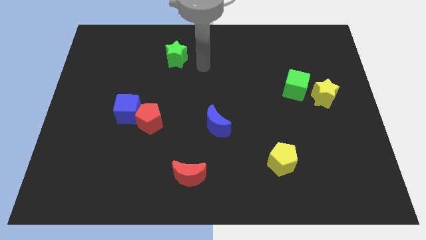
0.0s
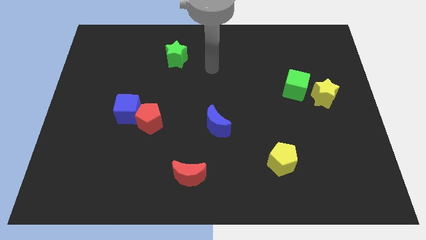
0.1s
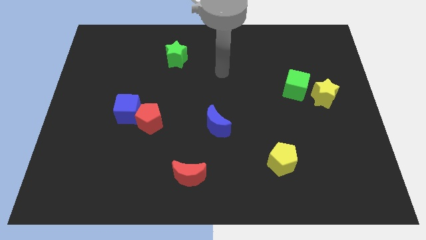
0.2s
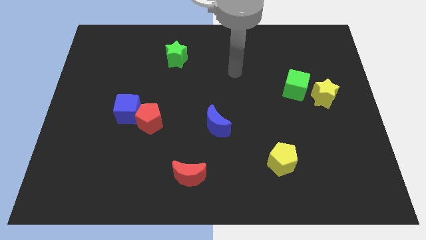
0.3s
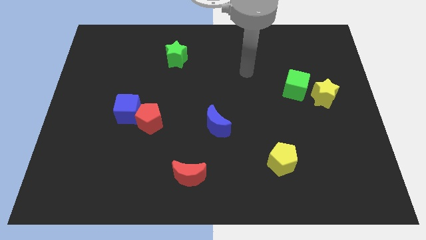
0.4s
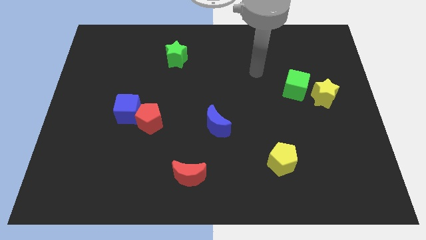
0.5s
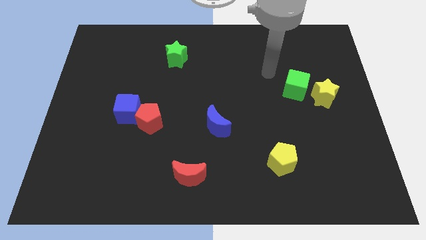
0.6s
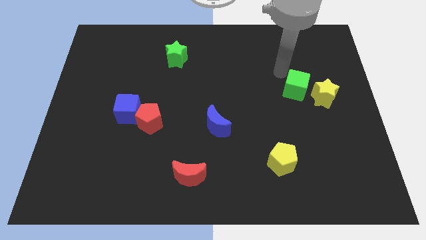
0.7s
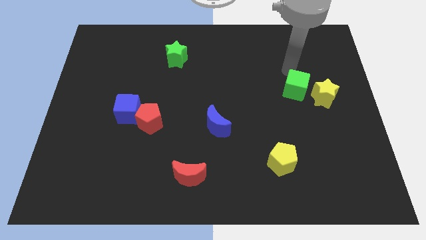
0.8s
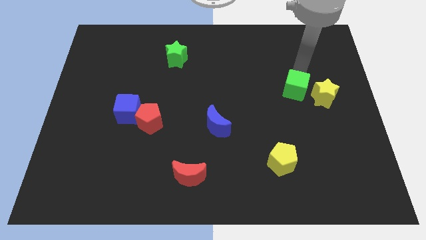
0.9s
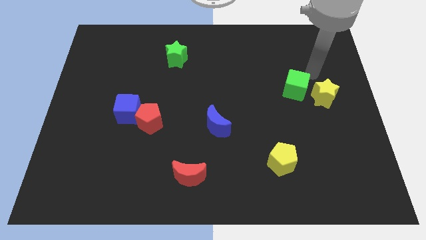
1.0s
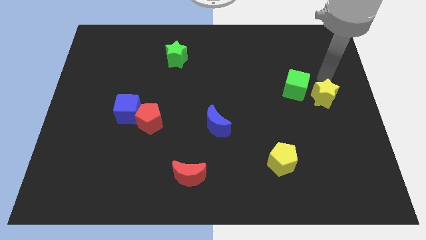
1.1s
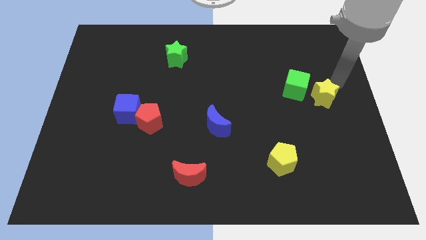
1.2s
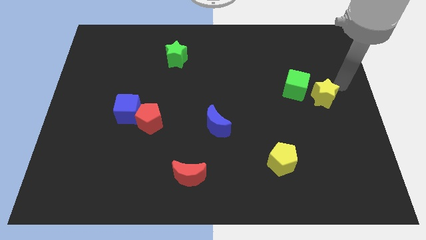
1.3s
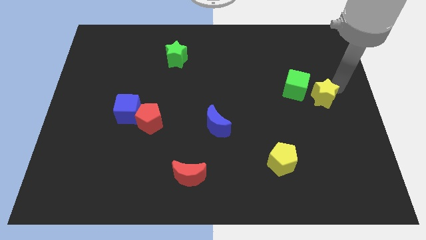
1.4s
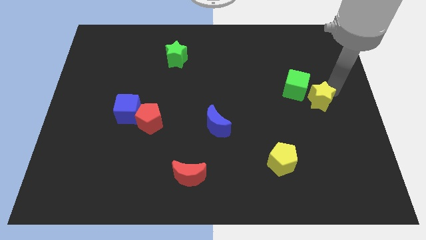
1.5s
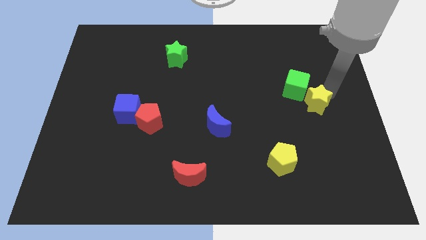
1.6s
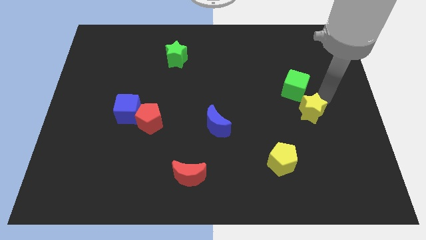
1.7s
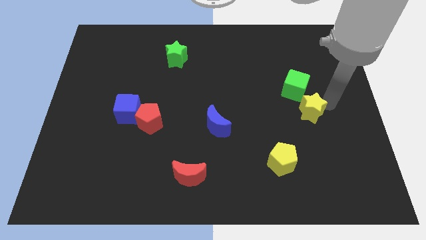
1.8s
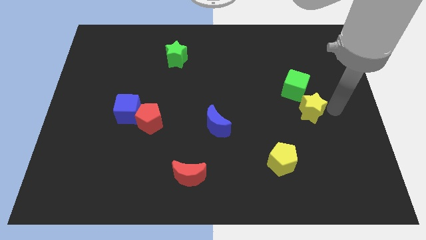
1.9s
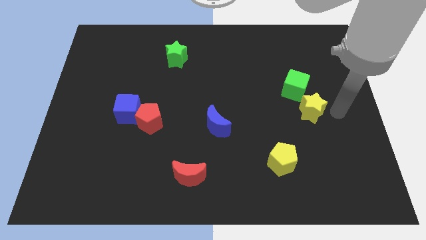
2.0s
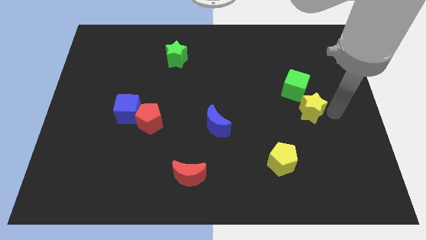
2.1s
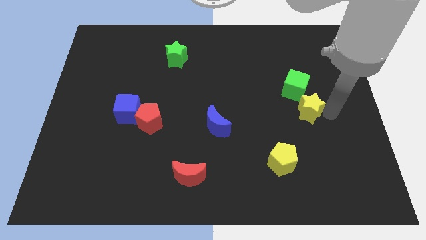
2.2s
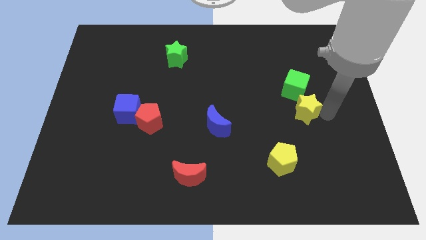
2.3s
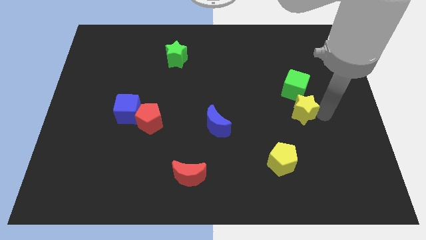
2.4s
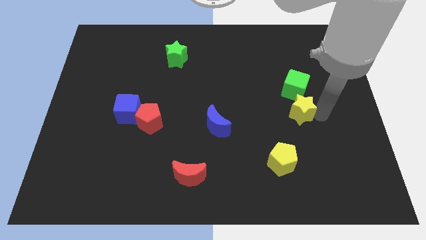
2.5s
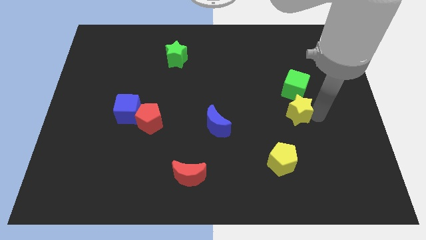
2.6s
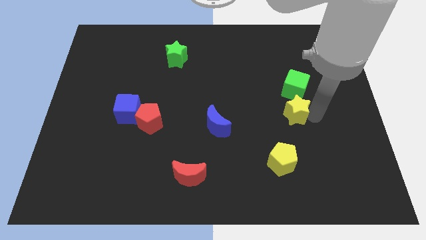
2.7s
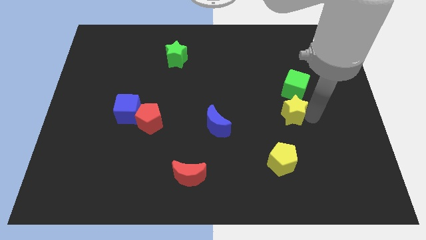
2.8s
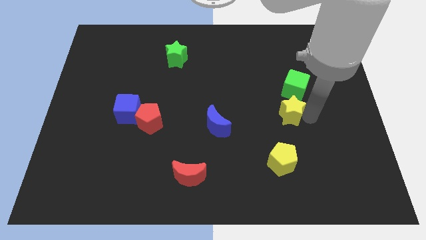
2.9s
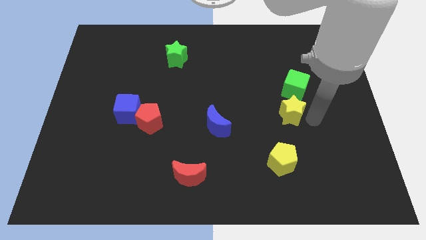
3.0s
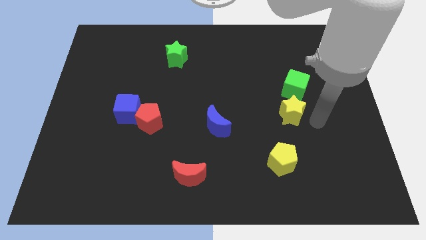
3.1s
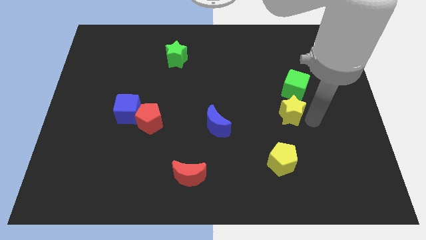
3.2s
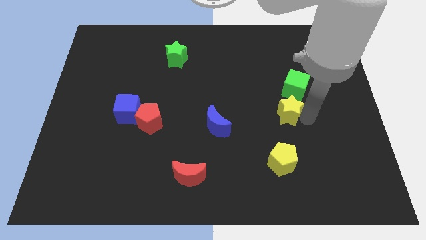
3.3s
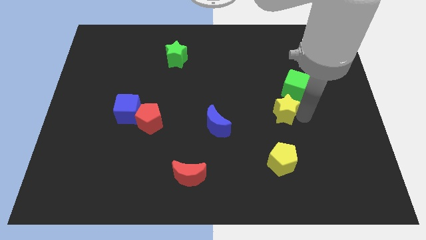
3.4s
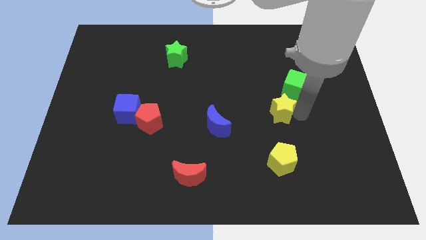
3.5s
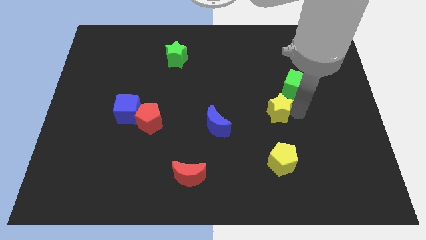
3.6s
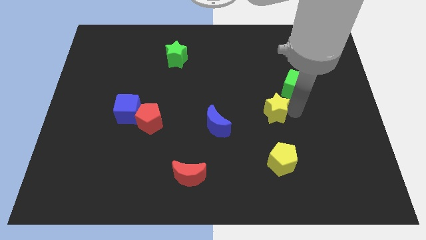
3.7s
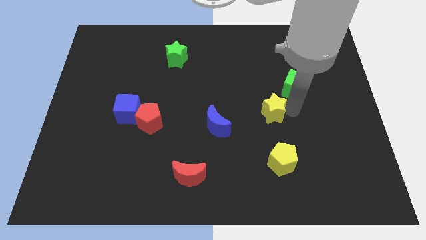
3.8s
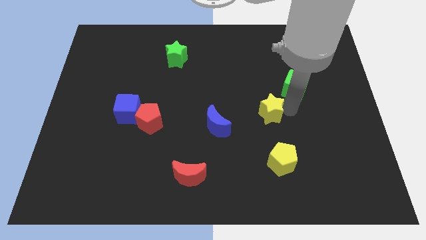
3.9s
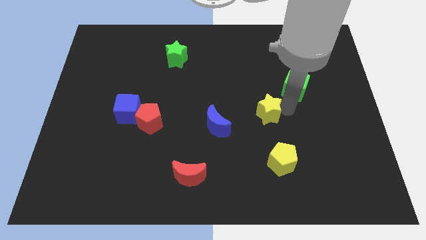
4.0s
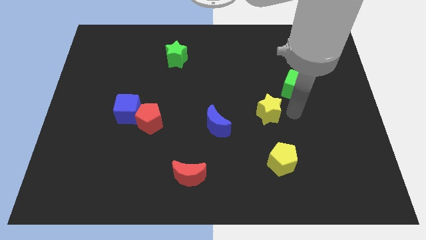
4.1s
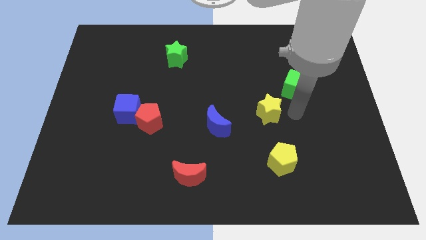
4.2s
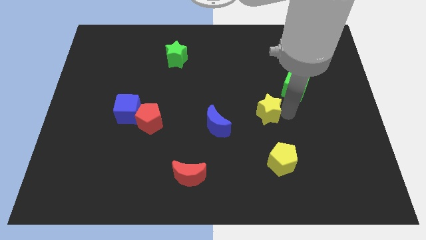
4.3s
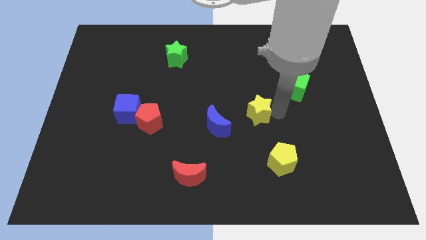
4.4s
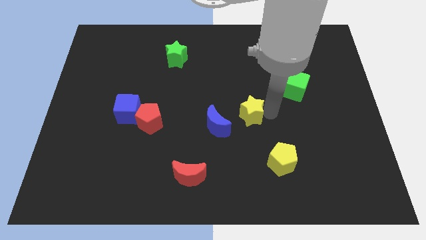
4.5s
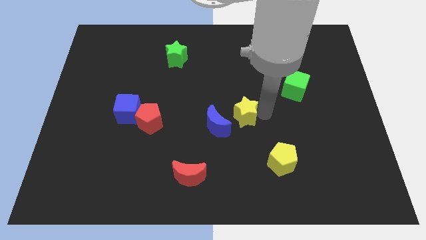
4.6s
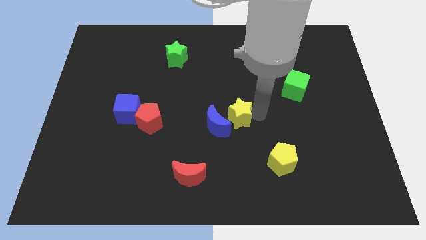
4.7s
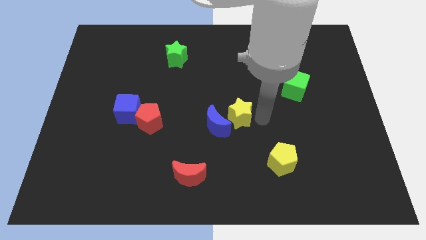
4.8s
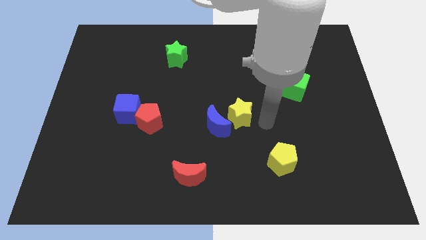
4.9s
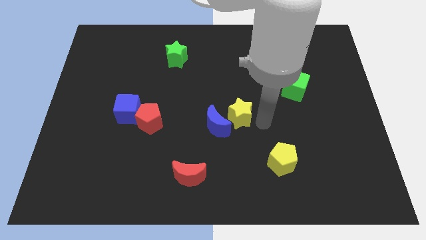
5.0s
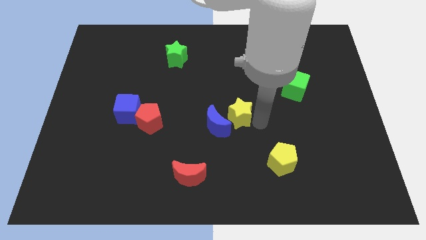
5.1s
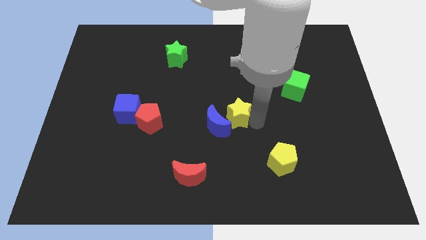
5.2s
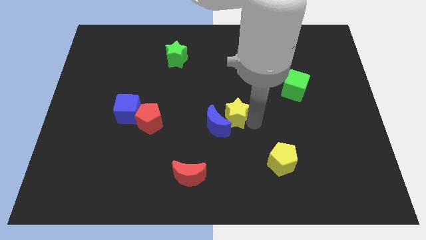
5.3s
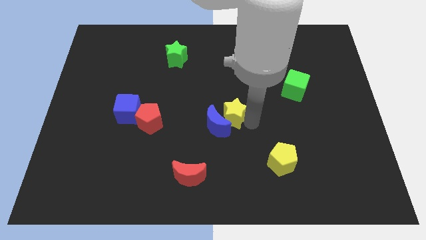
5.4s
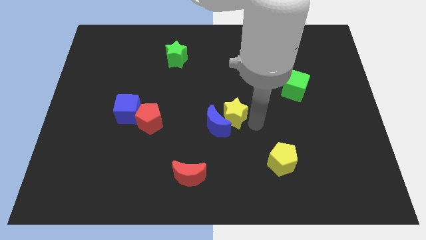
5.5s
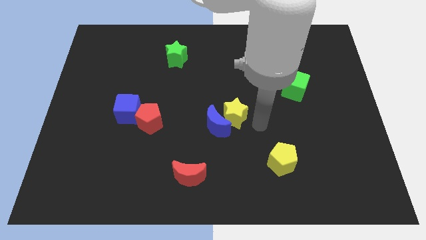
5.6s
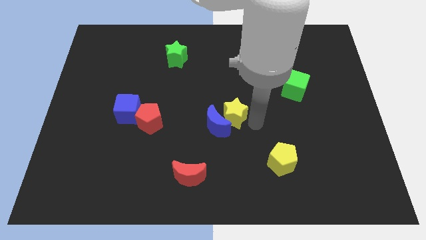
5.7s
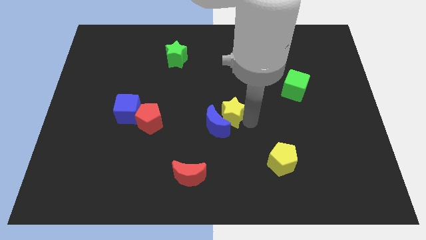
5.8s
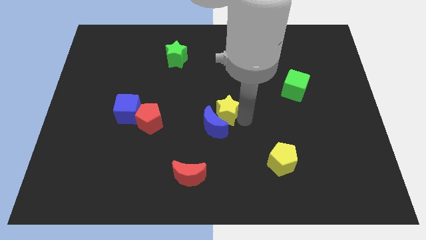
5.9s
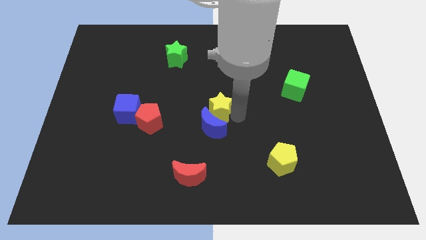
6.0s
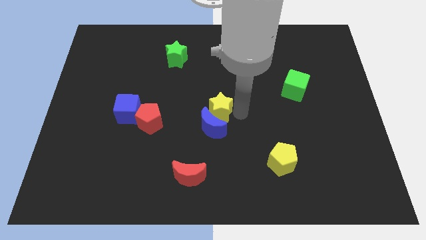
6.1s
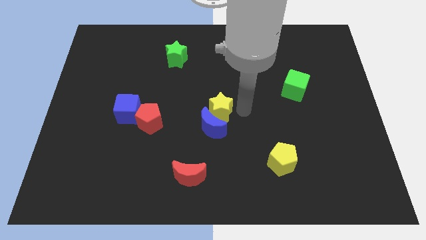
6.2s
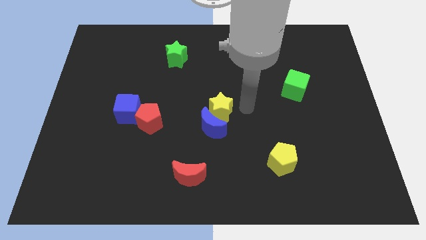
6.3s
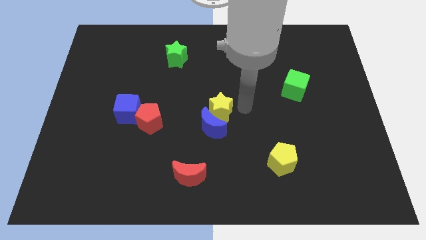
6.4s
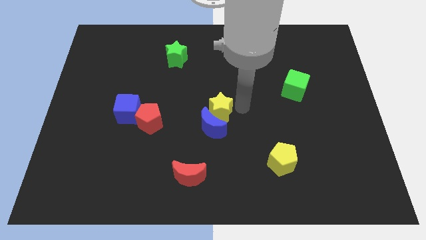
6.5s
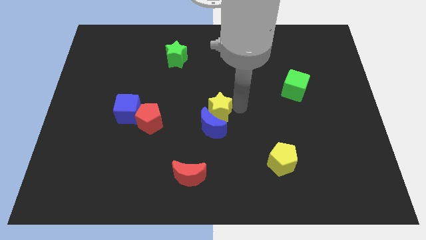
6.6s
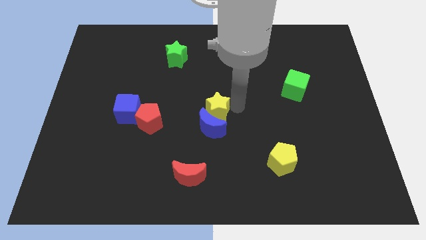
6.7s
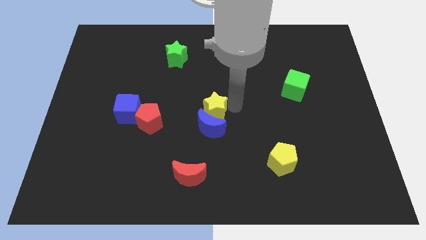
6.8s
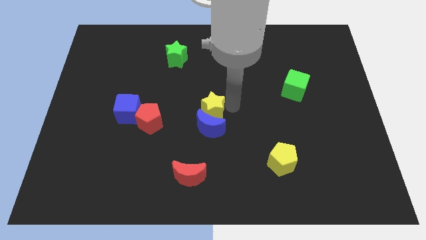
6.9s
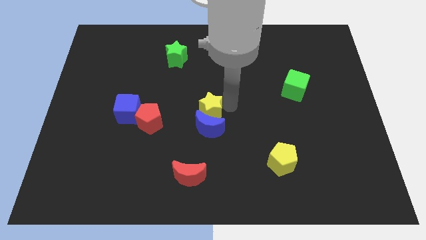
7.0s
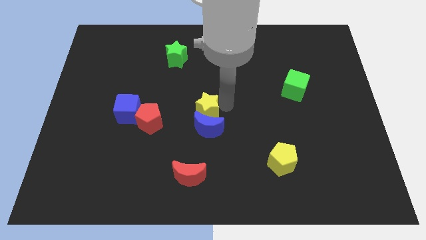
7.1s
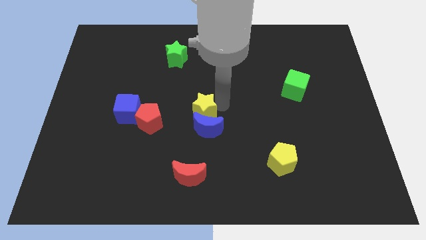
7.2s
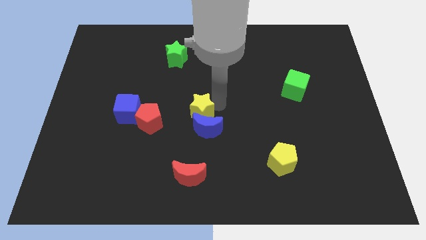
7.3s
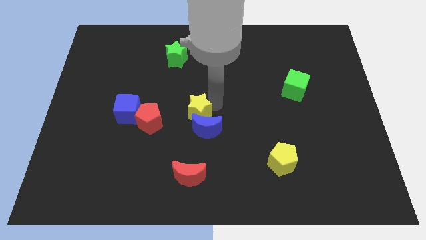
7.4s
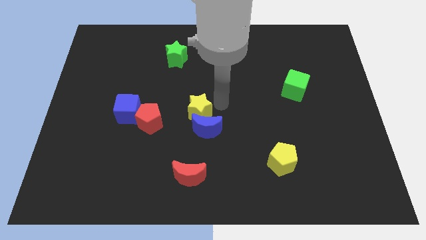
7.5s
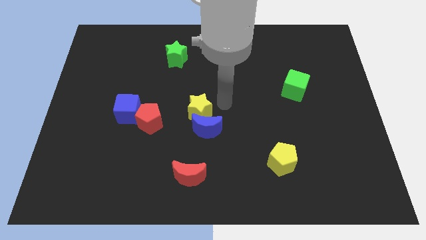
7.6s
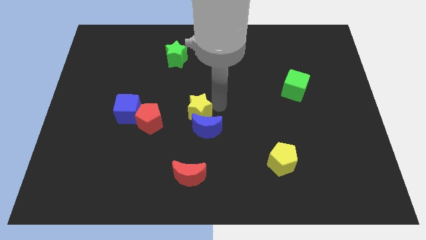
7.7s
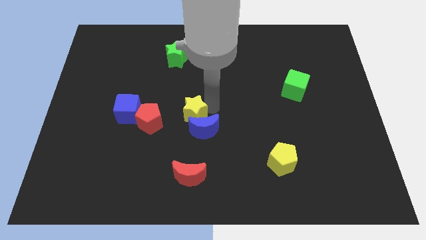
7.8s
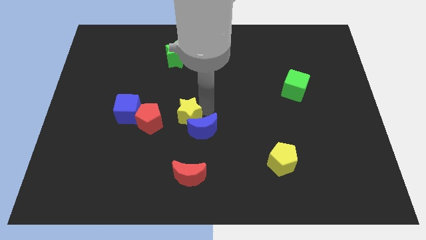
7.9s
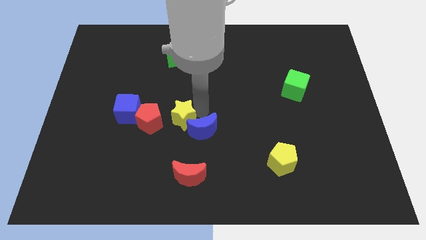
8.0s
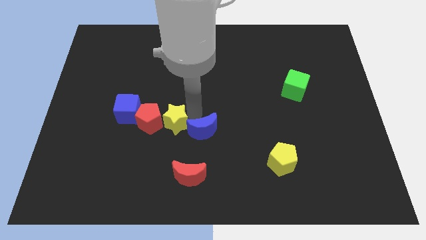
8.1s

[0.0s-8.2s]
move the yellow star close to the red pentagon
